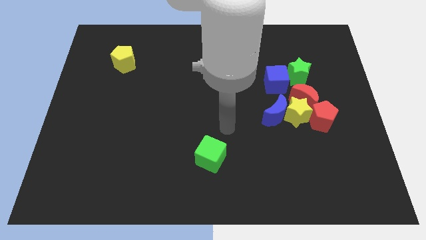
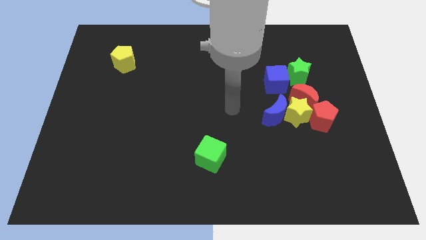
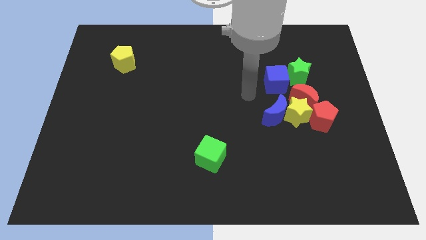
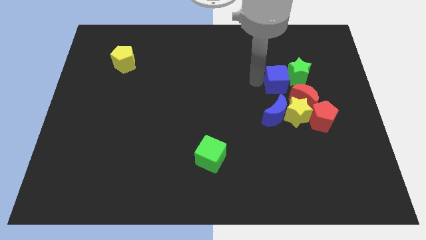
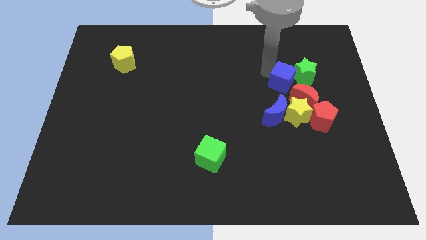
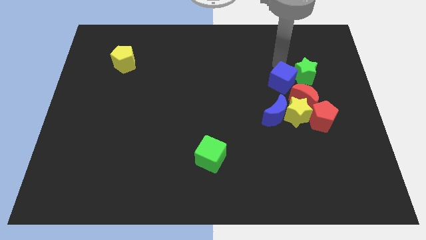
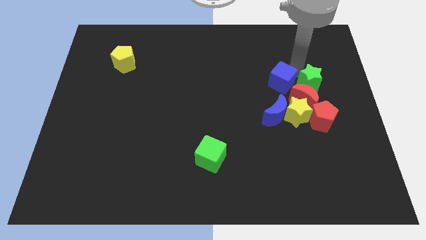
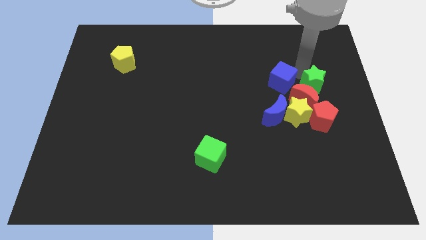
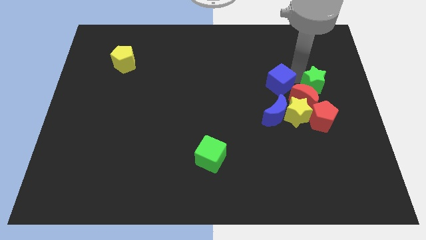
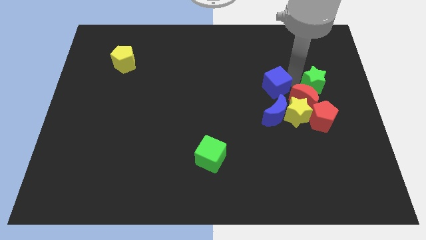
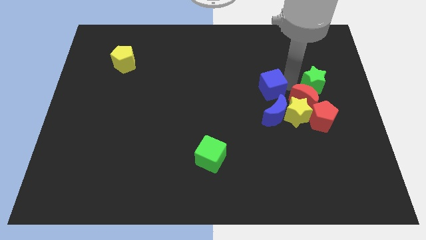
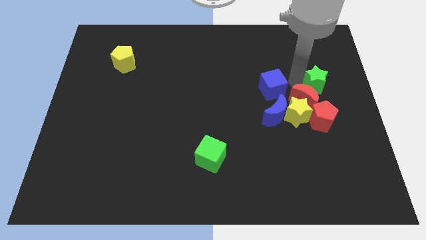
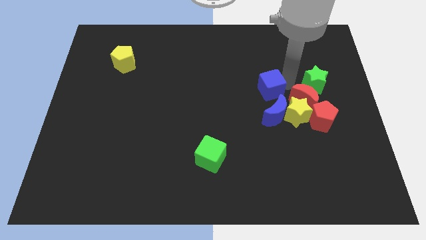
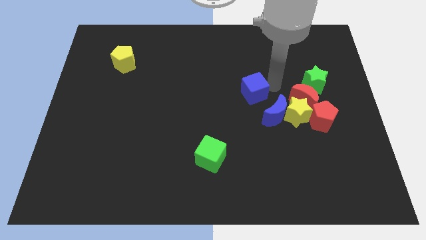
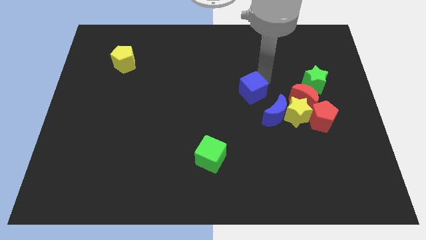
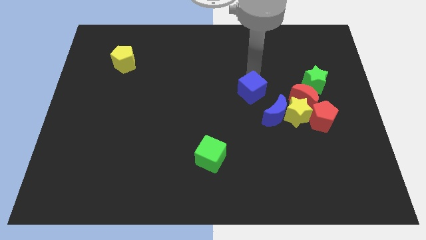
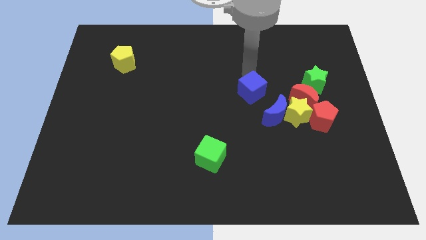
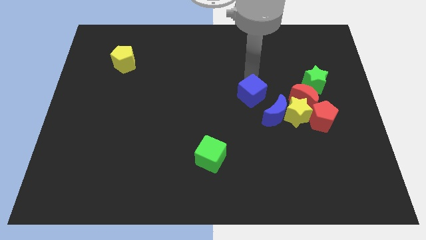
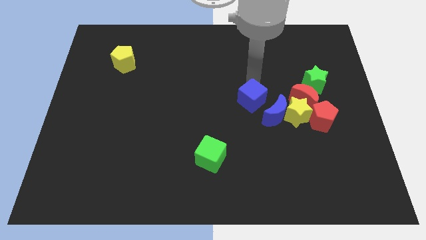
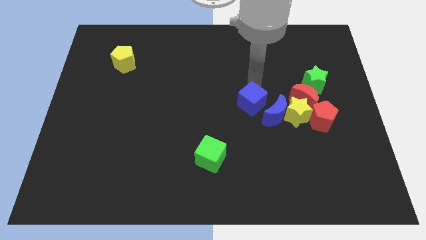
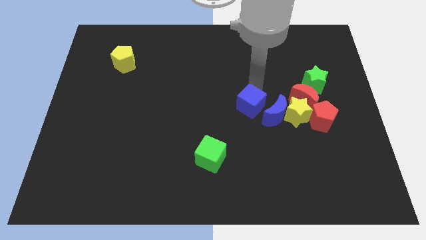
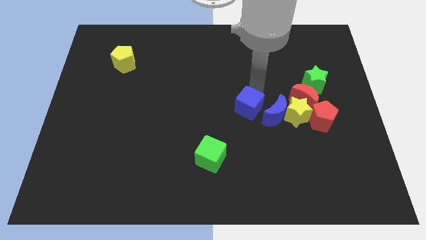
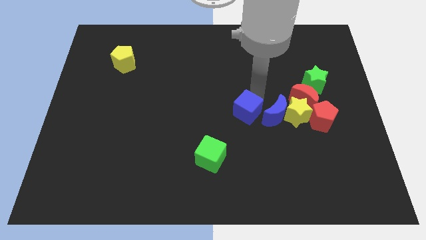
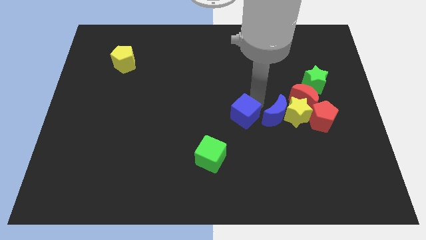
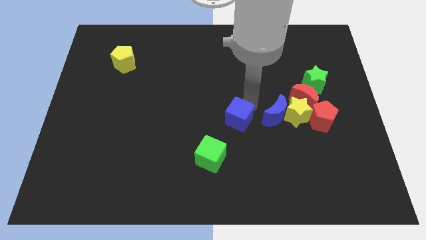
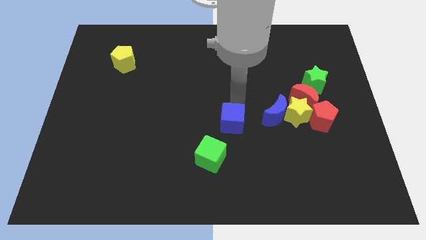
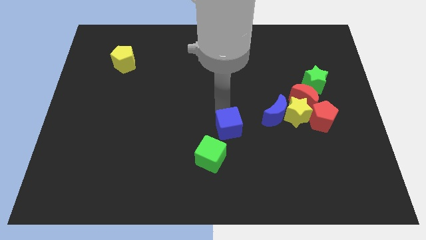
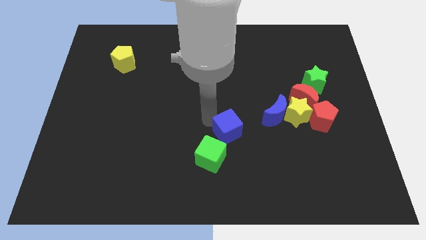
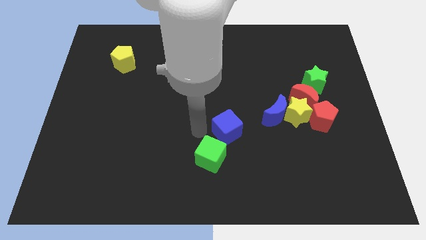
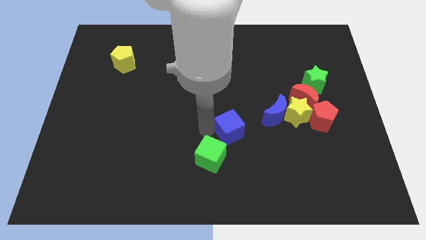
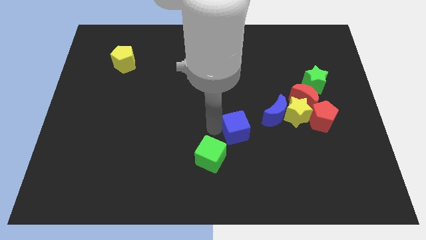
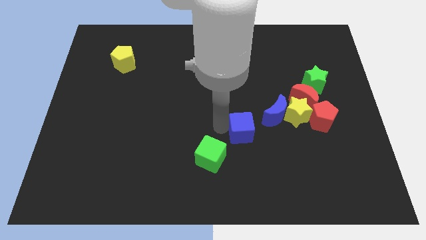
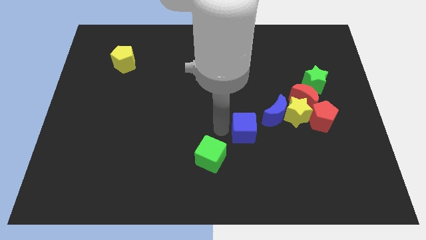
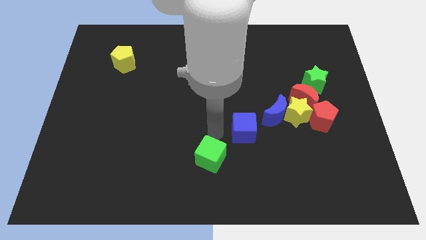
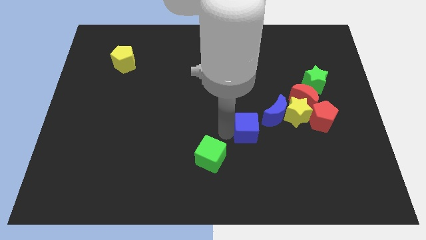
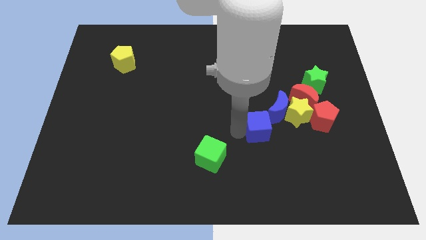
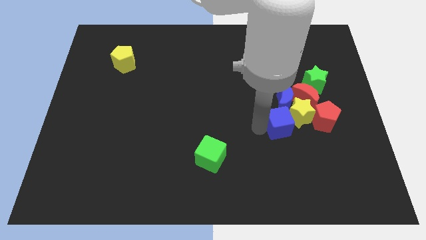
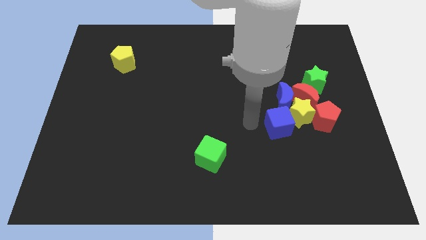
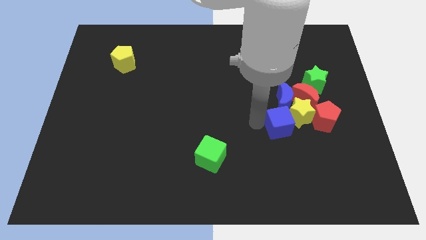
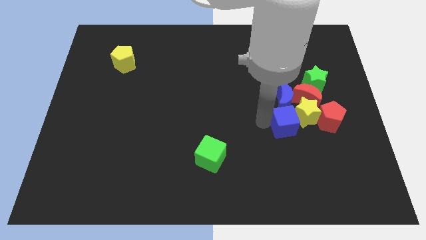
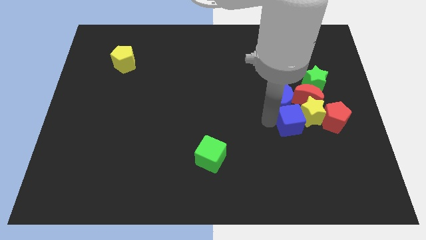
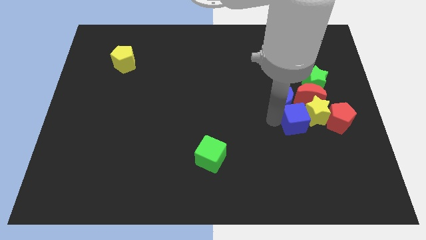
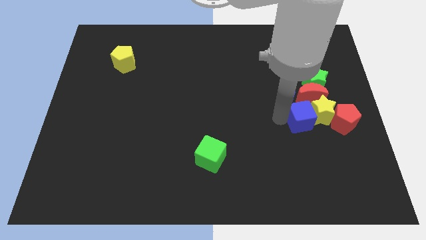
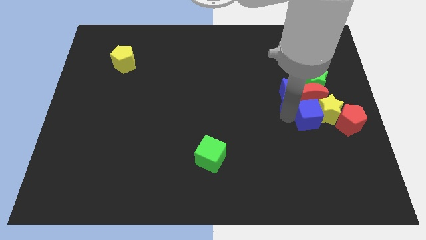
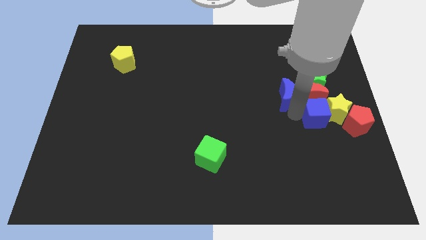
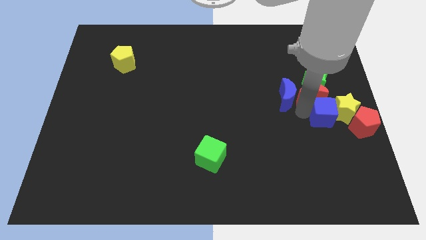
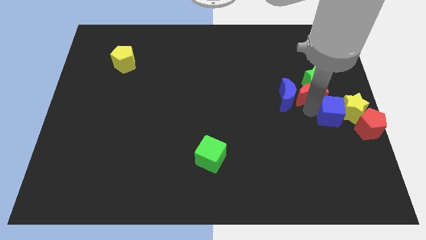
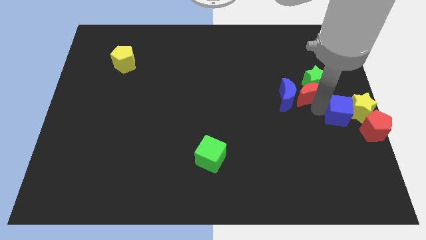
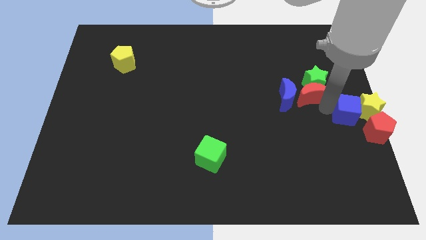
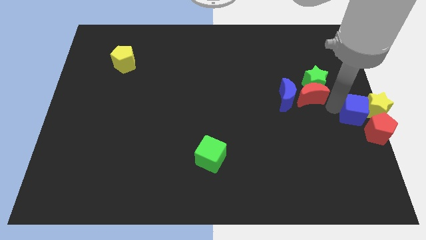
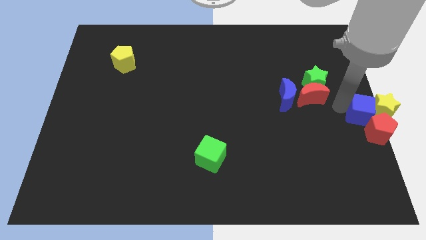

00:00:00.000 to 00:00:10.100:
slide the blue cube close to the red pentagon

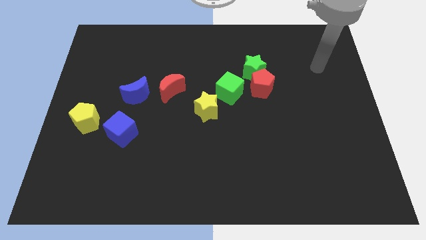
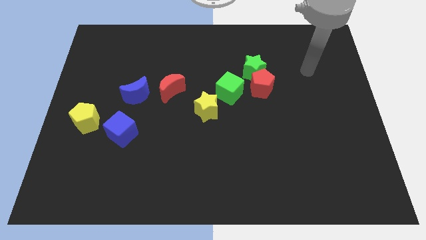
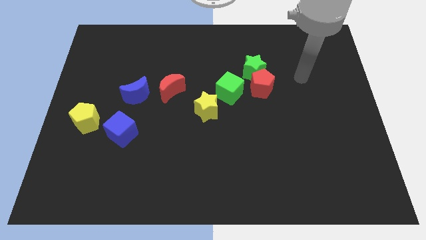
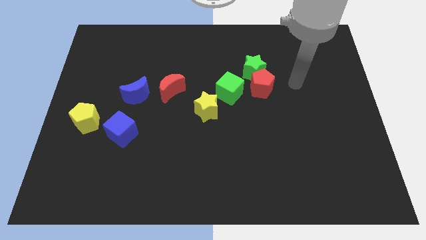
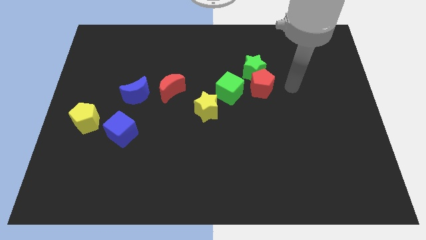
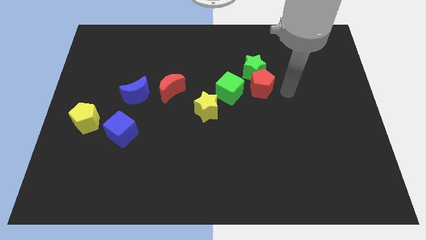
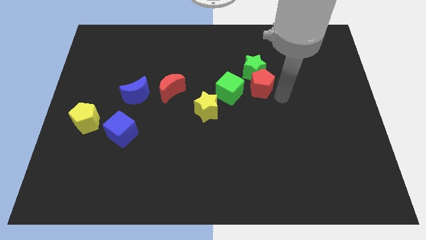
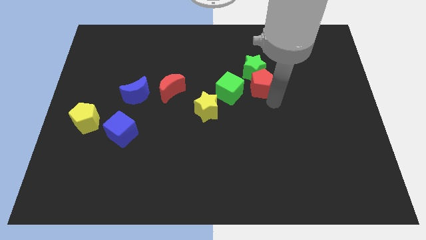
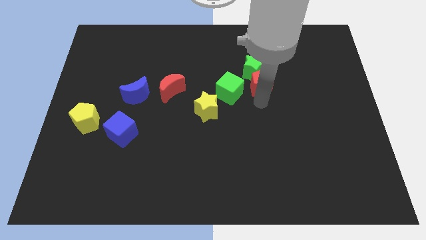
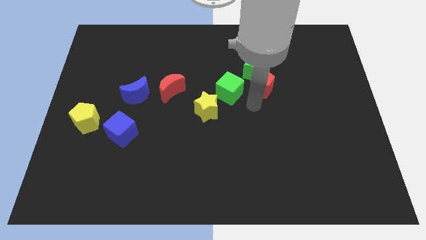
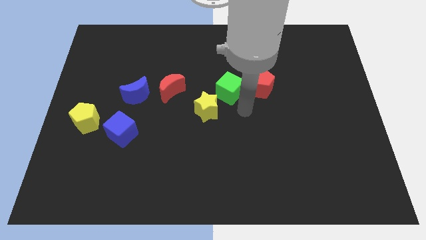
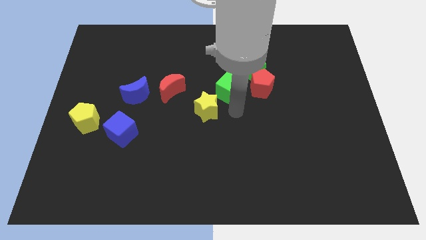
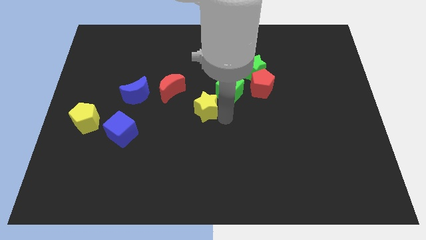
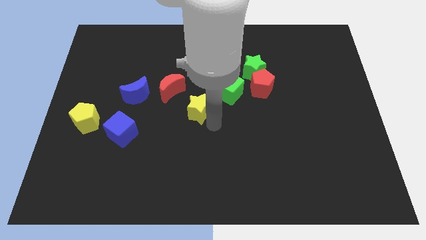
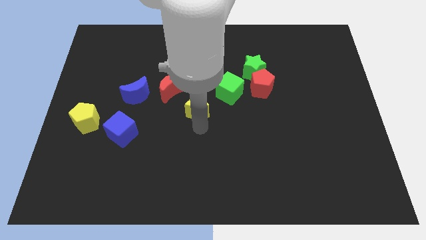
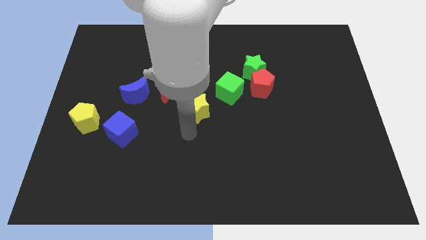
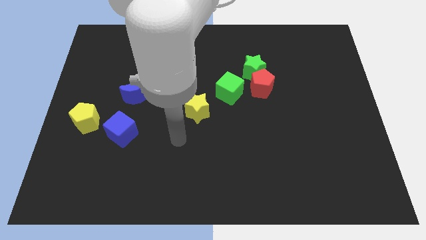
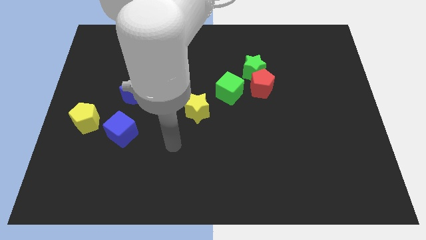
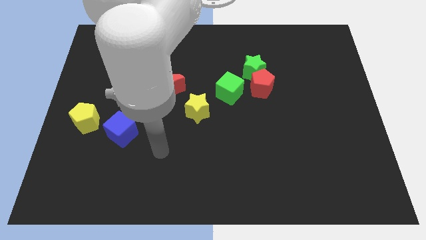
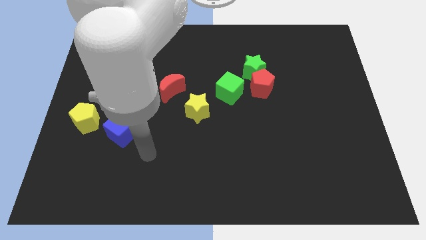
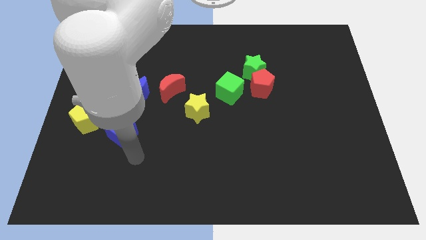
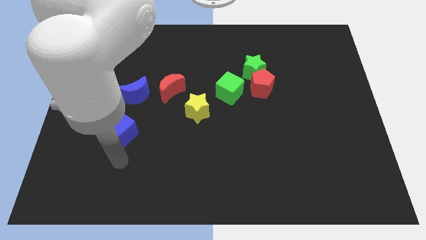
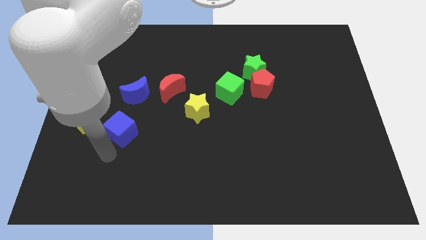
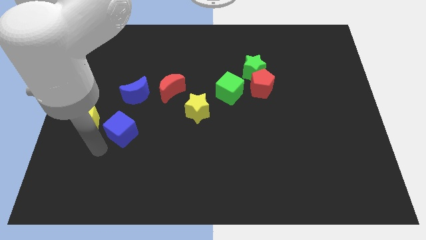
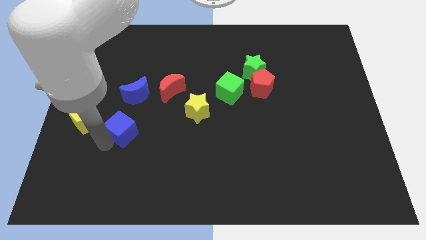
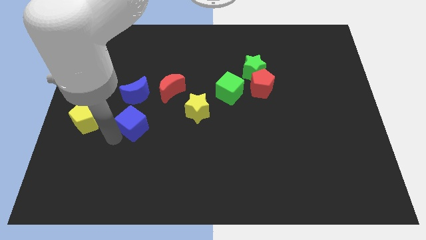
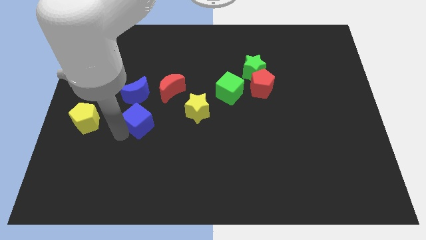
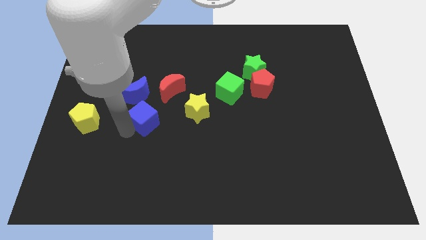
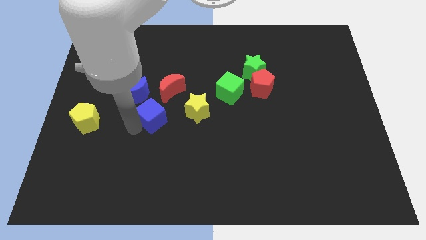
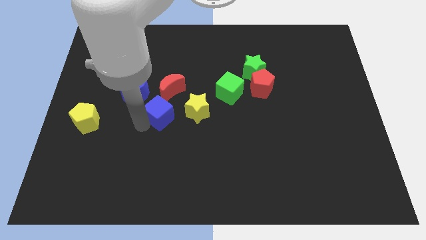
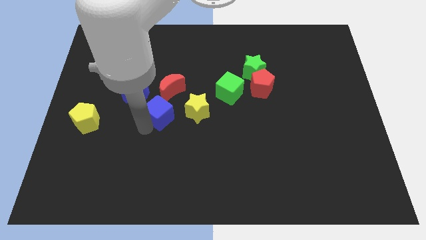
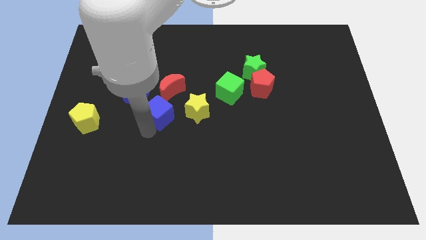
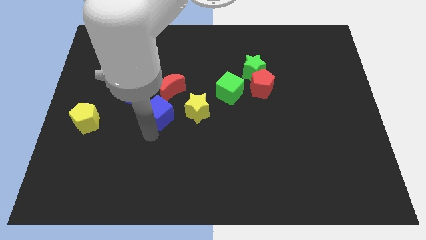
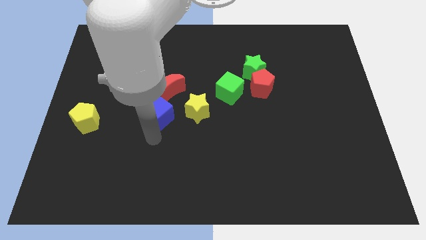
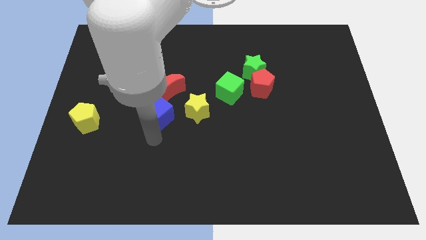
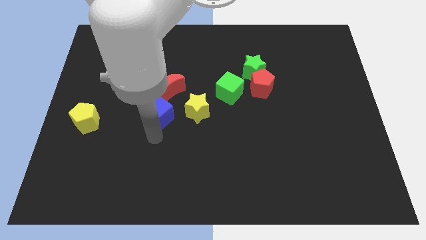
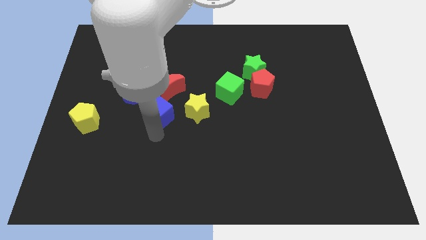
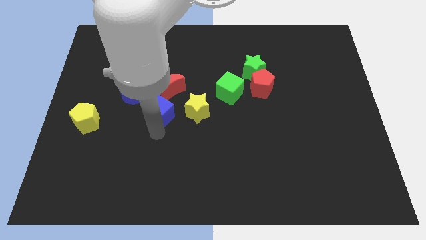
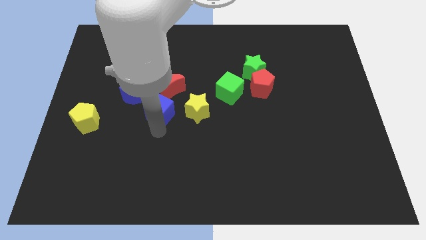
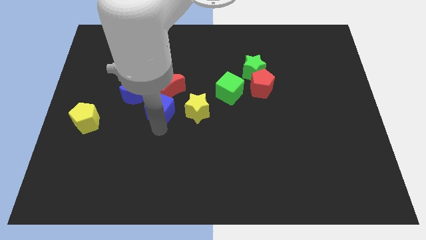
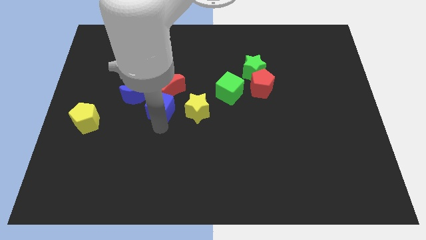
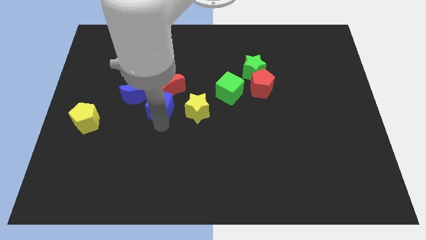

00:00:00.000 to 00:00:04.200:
slide the blue cube to the red moon
